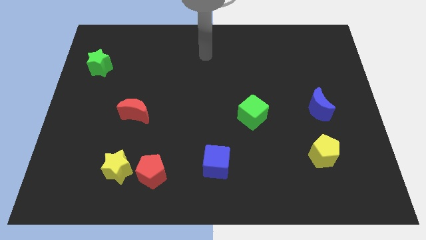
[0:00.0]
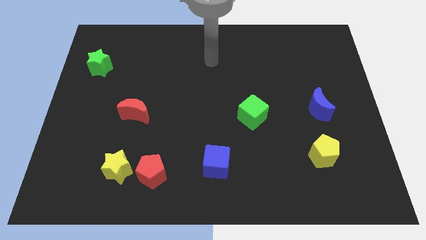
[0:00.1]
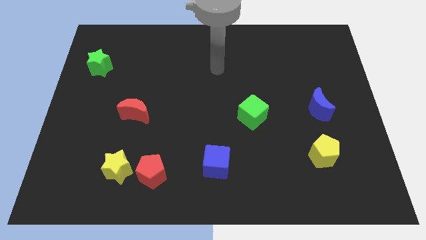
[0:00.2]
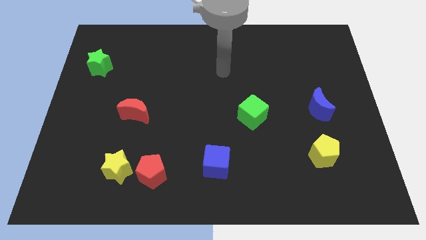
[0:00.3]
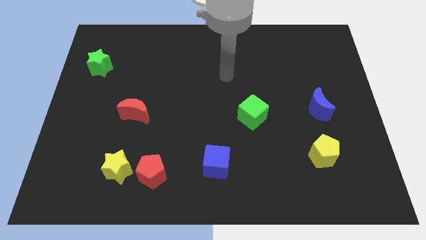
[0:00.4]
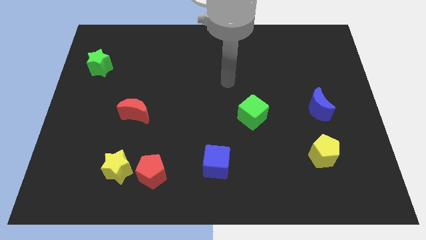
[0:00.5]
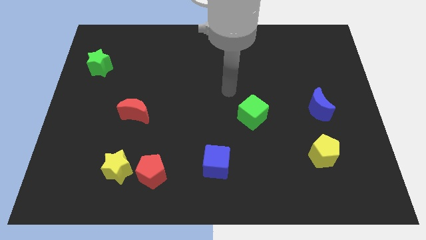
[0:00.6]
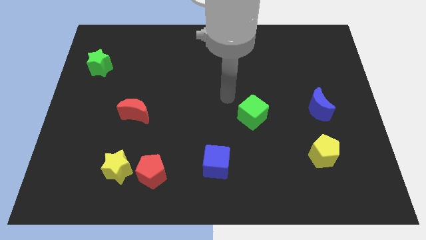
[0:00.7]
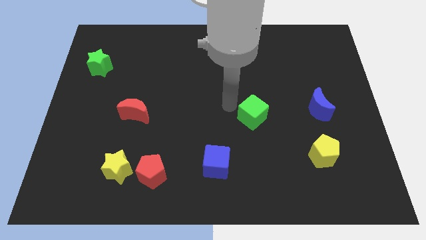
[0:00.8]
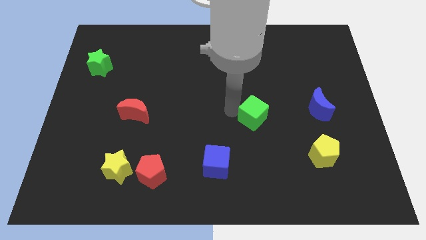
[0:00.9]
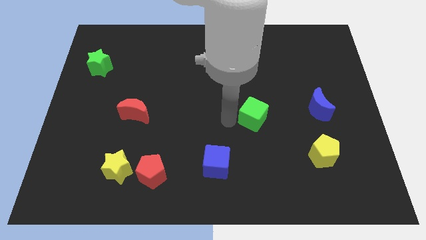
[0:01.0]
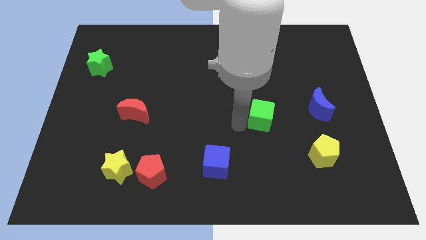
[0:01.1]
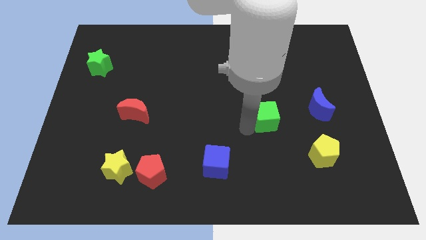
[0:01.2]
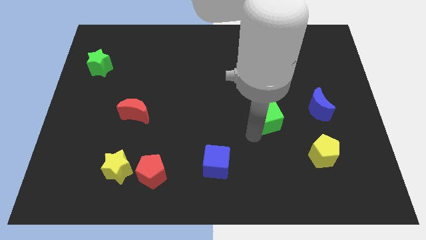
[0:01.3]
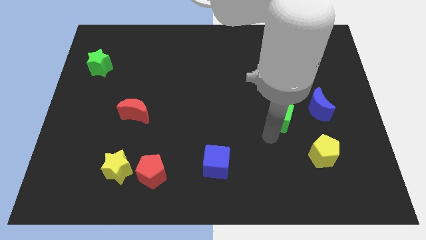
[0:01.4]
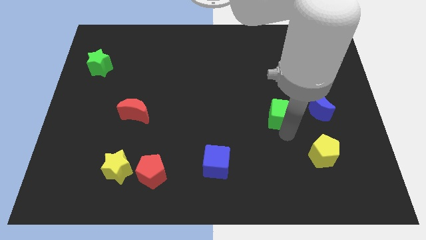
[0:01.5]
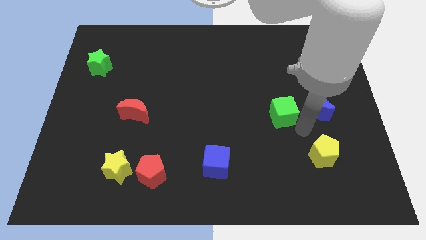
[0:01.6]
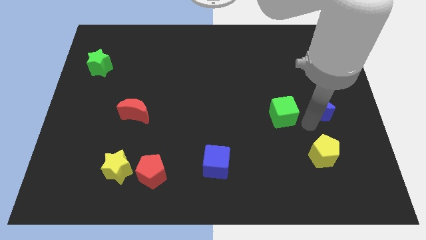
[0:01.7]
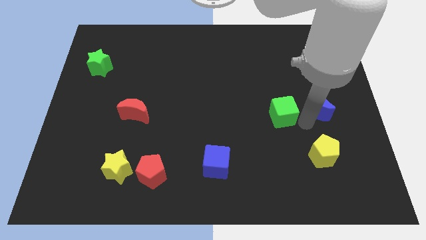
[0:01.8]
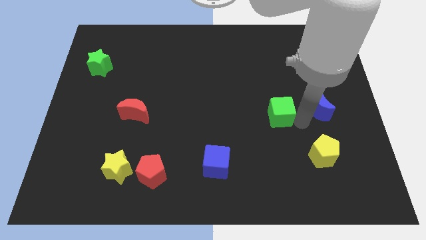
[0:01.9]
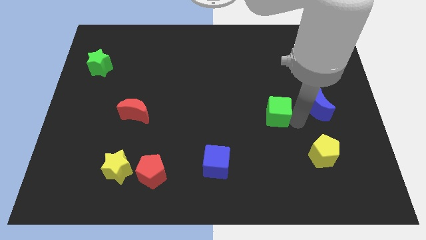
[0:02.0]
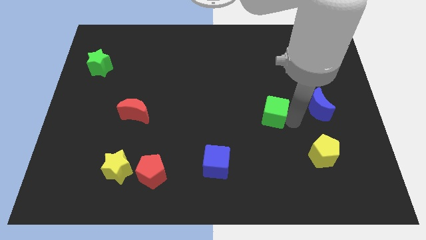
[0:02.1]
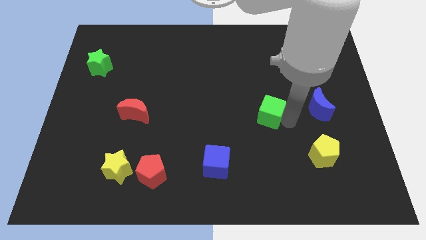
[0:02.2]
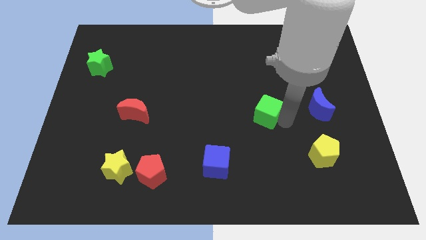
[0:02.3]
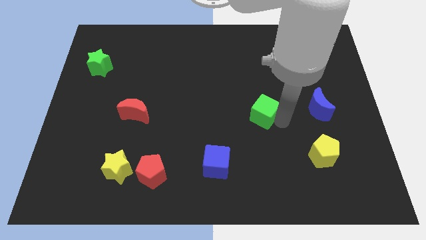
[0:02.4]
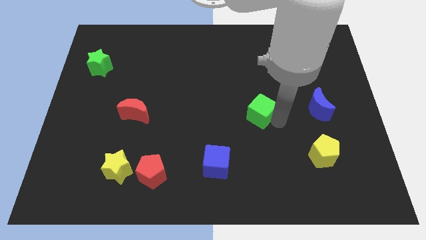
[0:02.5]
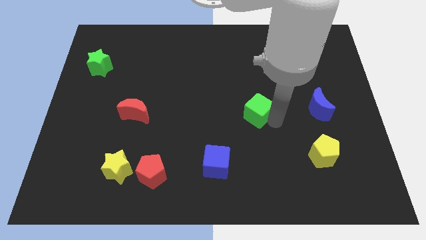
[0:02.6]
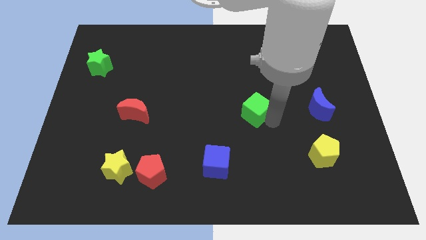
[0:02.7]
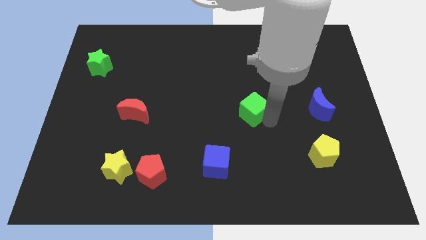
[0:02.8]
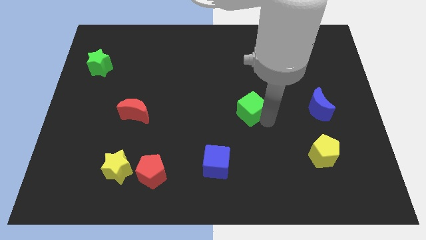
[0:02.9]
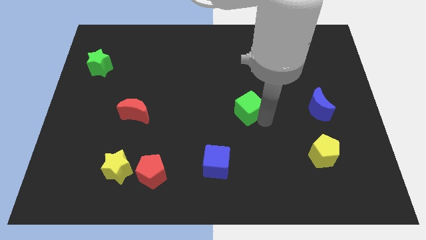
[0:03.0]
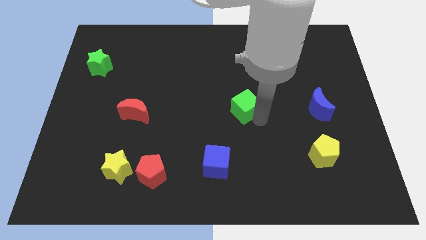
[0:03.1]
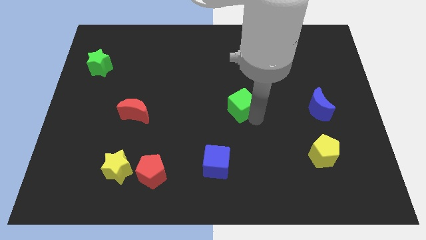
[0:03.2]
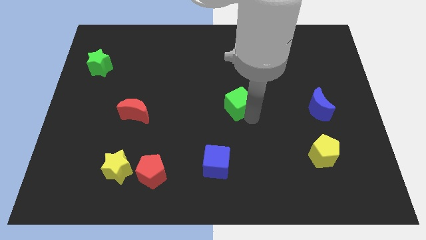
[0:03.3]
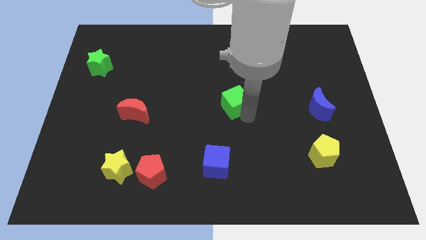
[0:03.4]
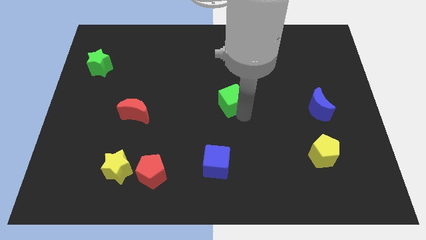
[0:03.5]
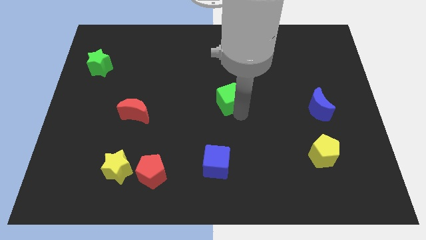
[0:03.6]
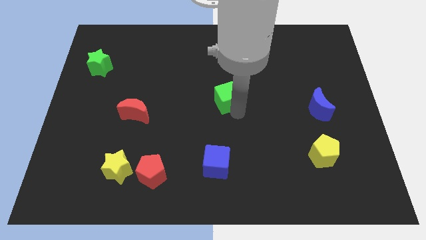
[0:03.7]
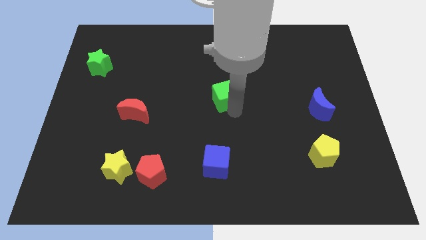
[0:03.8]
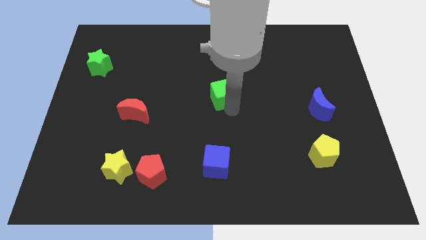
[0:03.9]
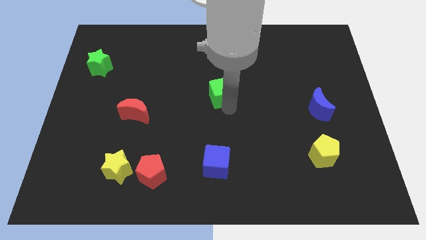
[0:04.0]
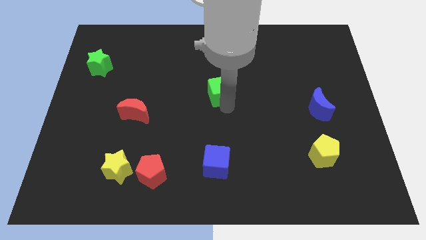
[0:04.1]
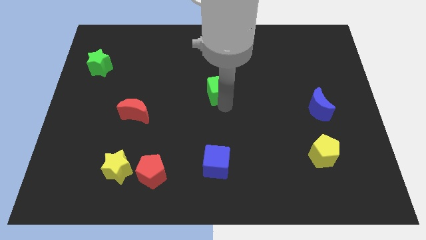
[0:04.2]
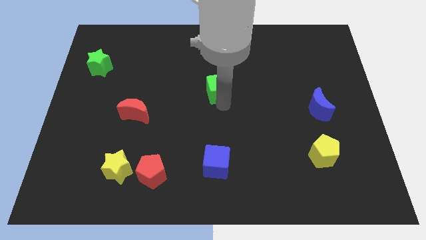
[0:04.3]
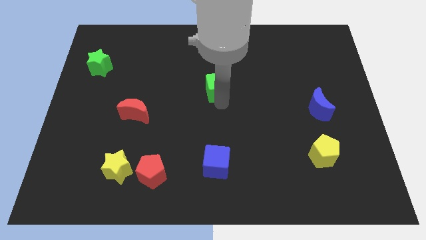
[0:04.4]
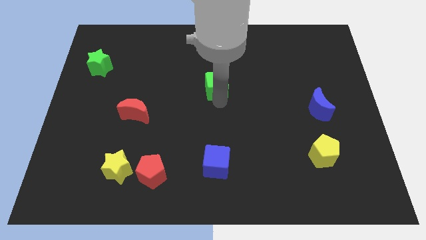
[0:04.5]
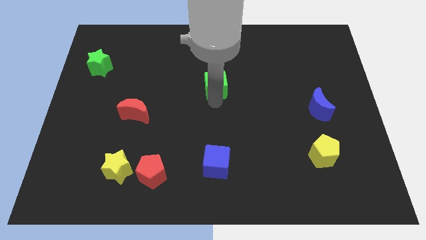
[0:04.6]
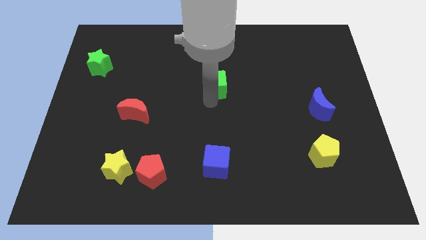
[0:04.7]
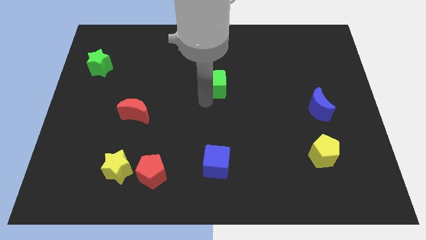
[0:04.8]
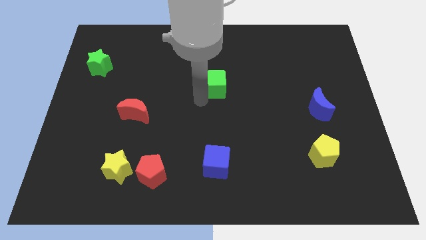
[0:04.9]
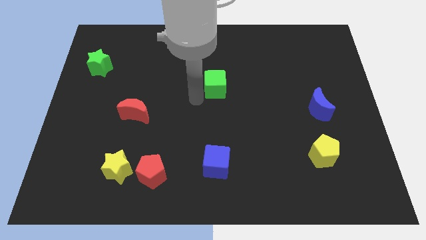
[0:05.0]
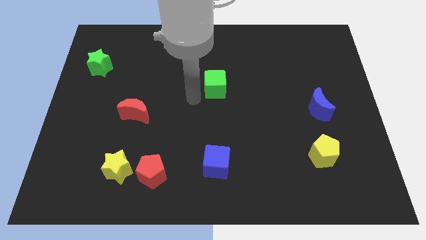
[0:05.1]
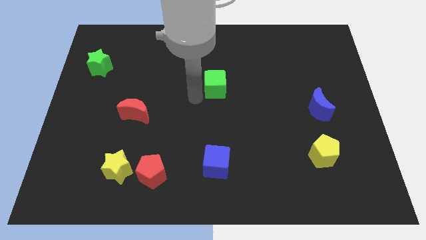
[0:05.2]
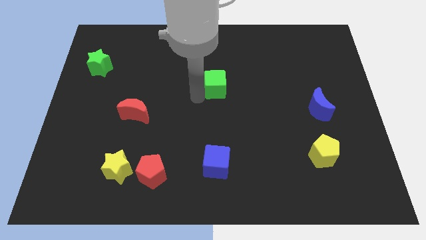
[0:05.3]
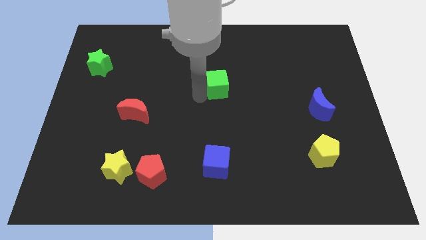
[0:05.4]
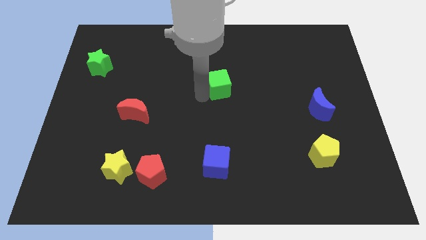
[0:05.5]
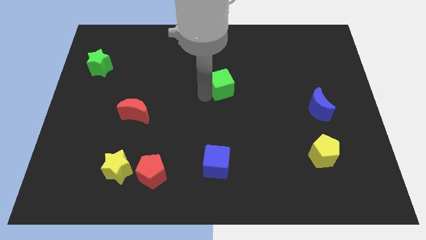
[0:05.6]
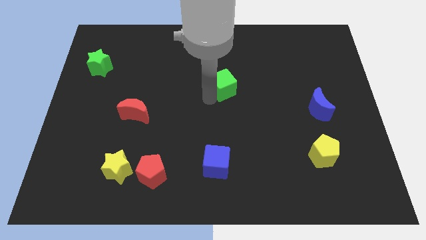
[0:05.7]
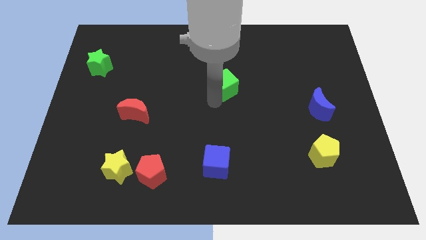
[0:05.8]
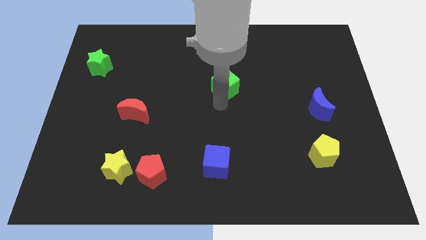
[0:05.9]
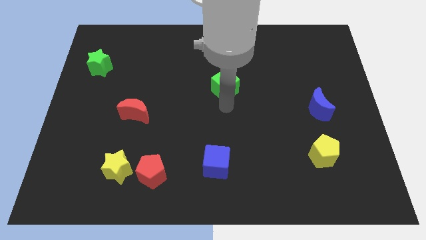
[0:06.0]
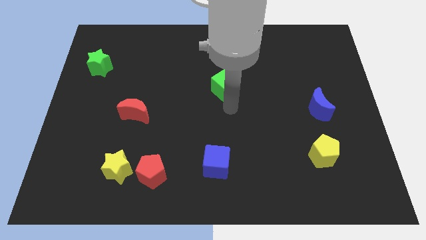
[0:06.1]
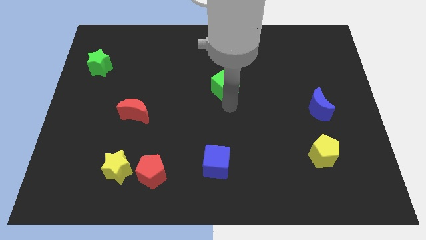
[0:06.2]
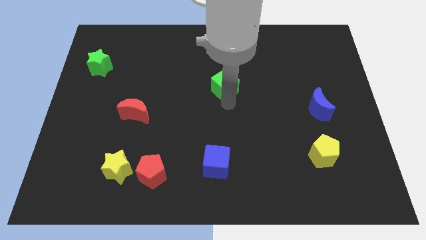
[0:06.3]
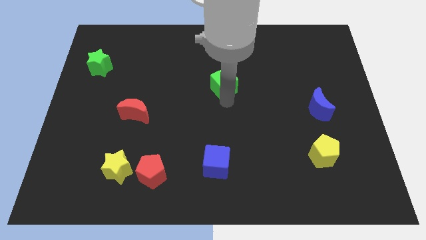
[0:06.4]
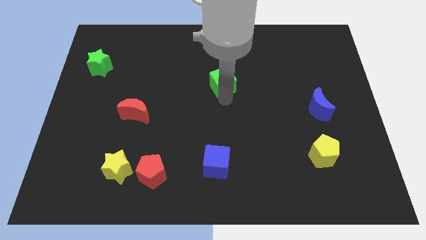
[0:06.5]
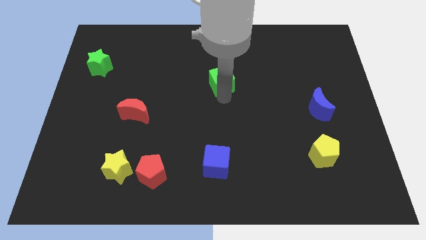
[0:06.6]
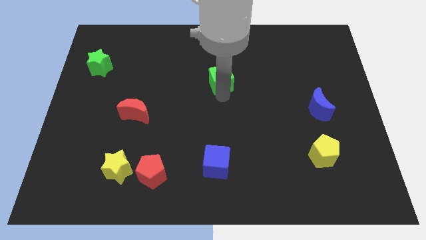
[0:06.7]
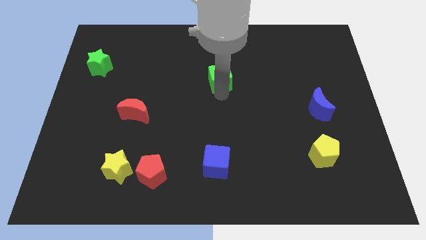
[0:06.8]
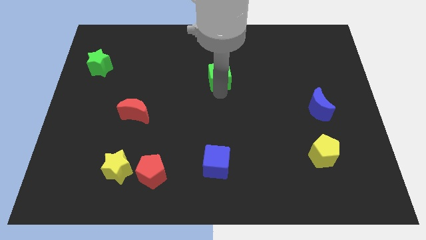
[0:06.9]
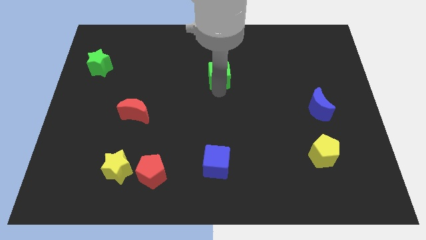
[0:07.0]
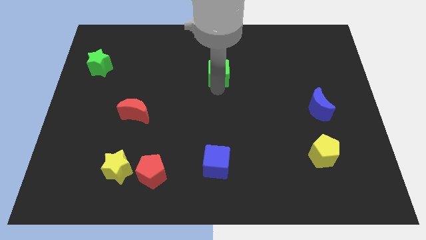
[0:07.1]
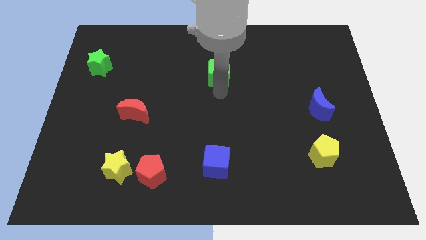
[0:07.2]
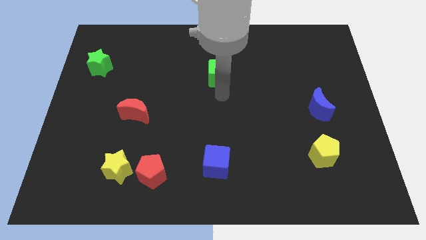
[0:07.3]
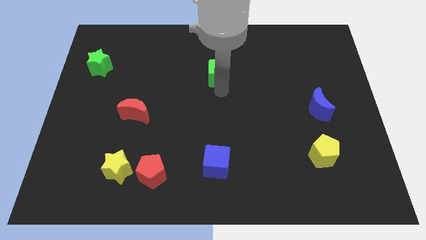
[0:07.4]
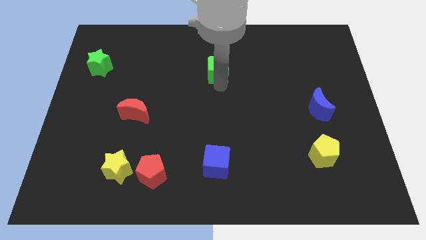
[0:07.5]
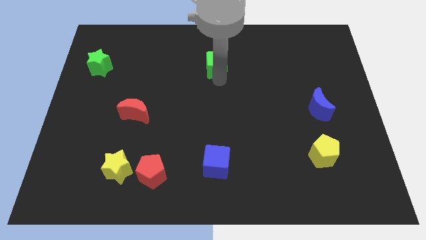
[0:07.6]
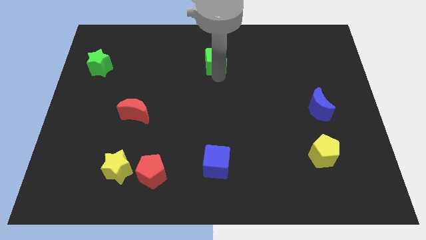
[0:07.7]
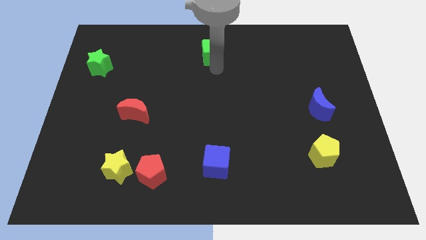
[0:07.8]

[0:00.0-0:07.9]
slide the green cube to the top side
